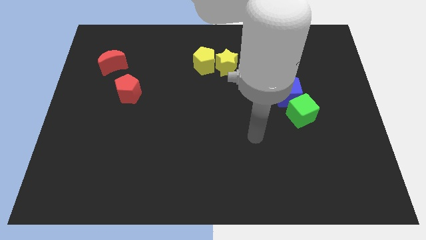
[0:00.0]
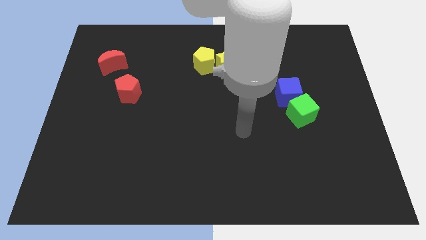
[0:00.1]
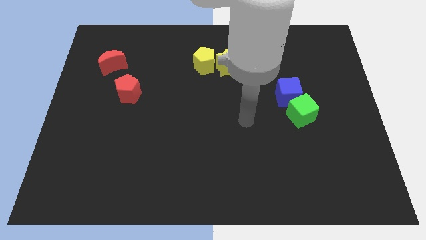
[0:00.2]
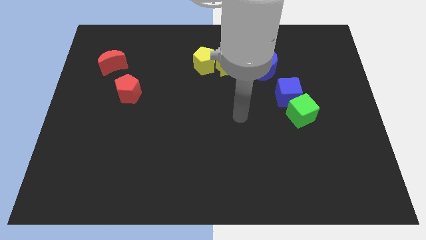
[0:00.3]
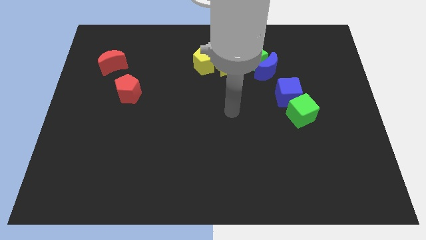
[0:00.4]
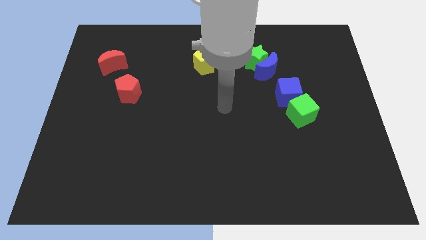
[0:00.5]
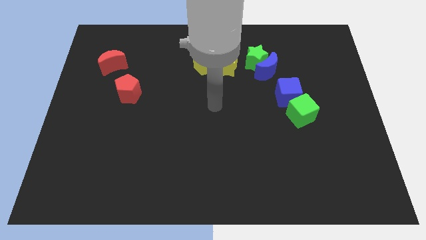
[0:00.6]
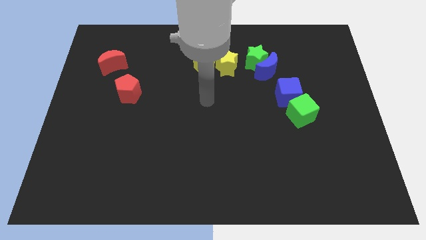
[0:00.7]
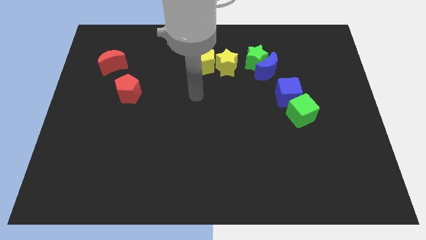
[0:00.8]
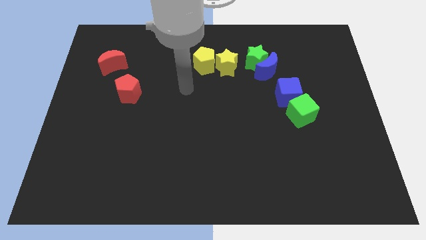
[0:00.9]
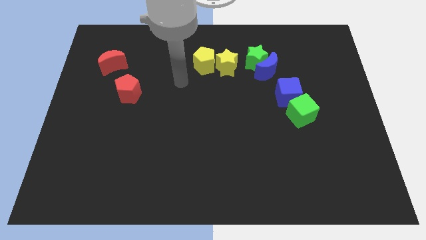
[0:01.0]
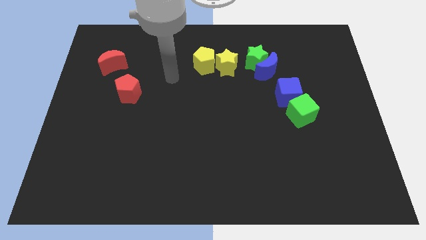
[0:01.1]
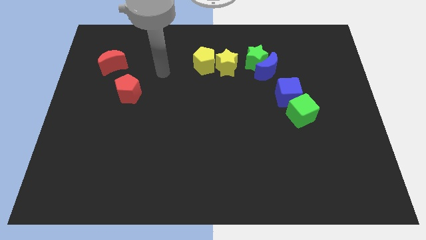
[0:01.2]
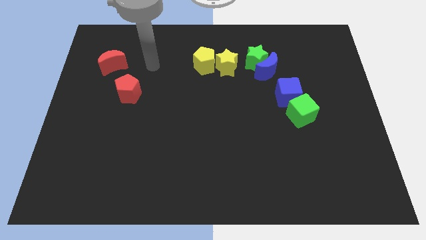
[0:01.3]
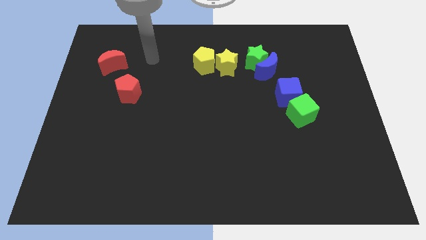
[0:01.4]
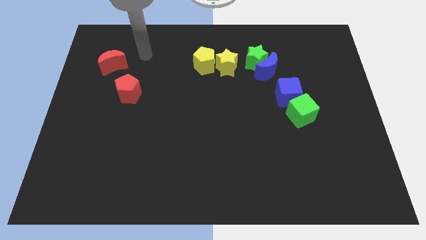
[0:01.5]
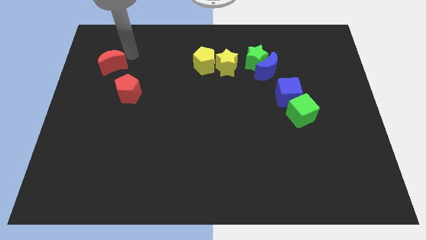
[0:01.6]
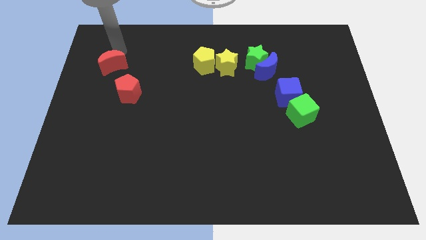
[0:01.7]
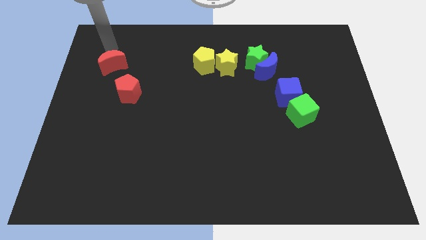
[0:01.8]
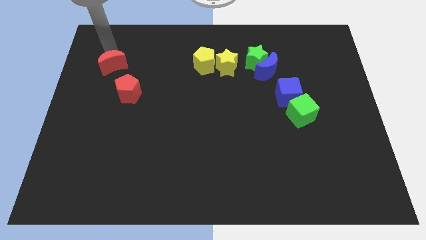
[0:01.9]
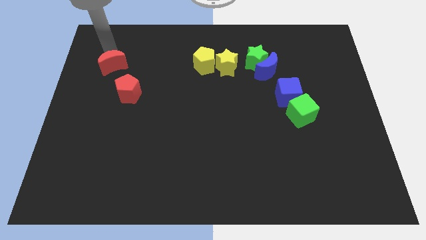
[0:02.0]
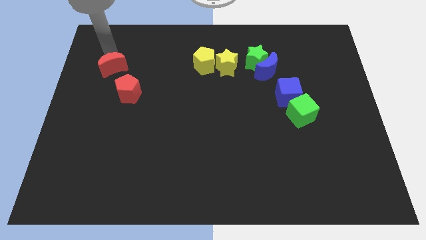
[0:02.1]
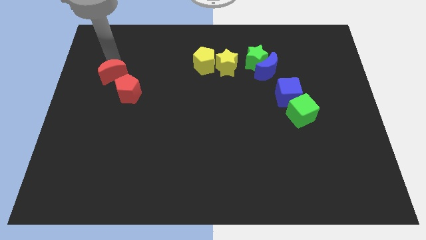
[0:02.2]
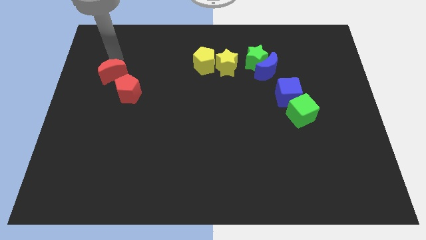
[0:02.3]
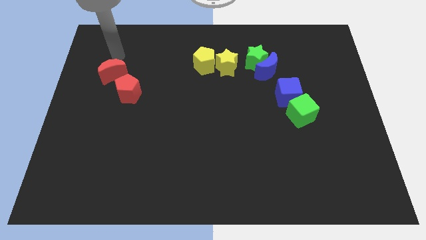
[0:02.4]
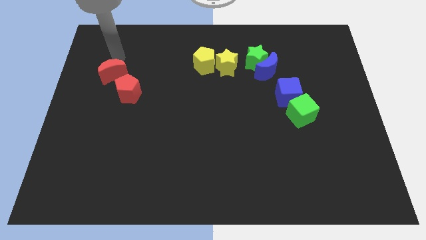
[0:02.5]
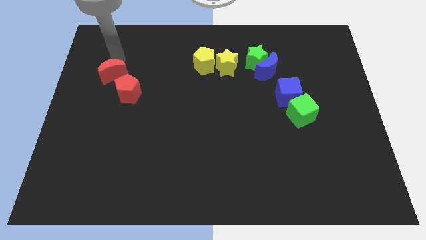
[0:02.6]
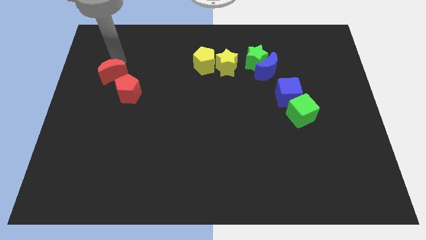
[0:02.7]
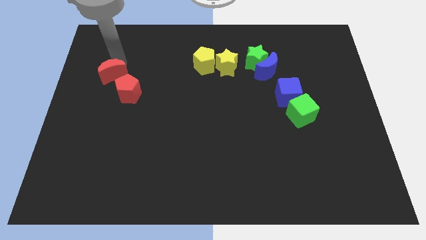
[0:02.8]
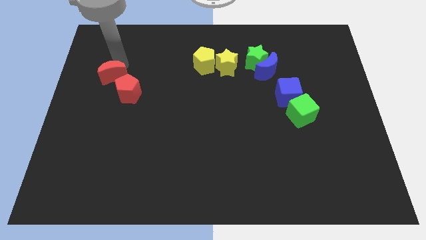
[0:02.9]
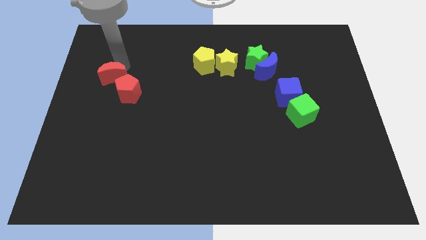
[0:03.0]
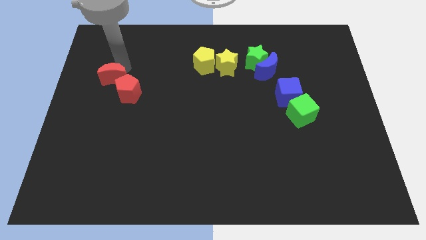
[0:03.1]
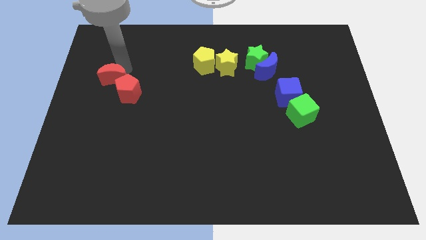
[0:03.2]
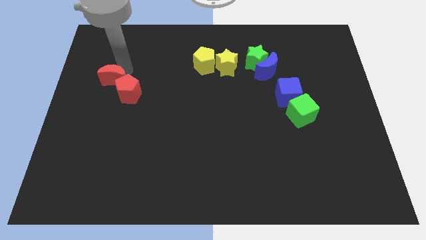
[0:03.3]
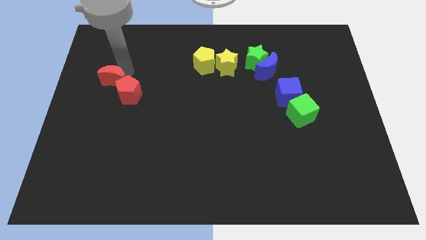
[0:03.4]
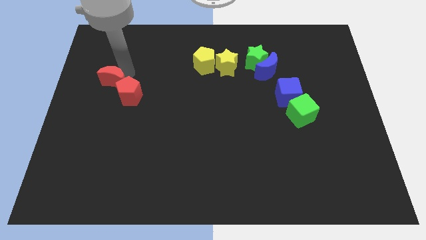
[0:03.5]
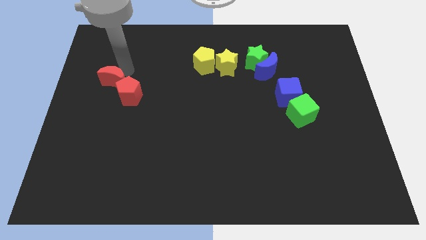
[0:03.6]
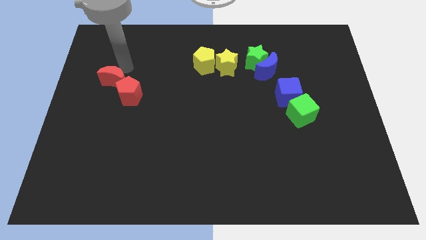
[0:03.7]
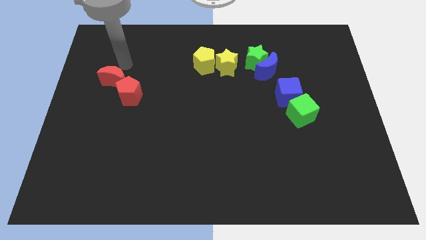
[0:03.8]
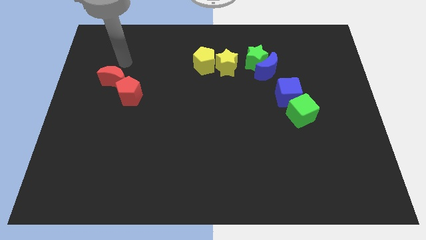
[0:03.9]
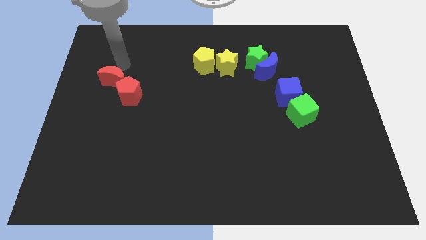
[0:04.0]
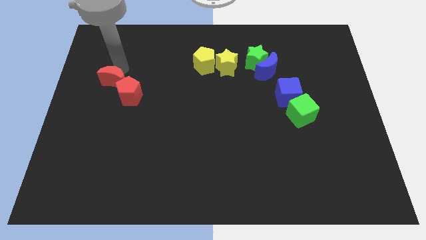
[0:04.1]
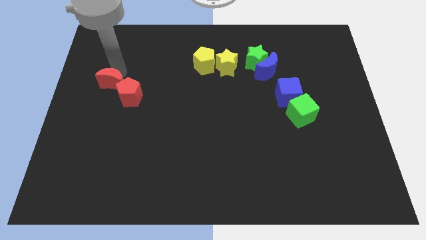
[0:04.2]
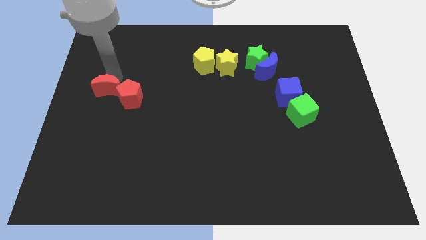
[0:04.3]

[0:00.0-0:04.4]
push the red moon downwards a little bit

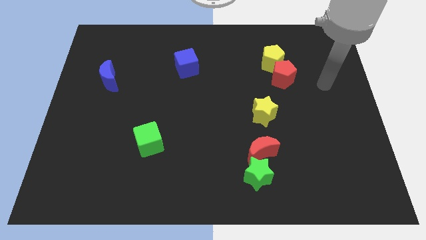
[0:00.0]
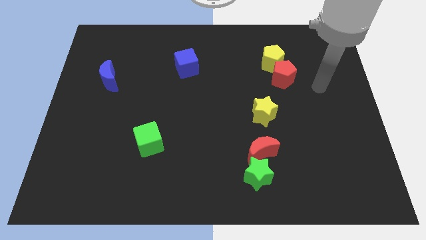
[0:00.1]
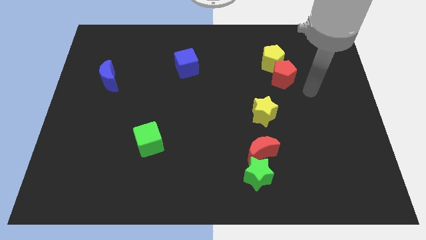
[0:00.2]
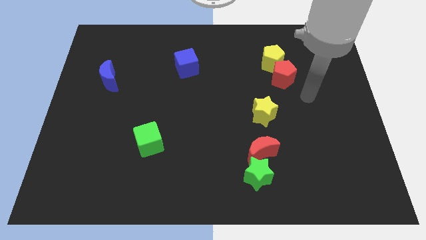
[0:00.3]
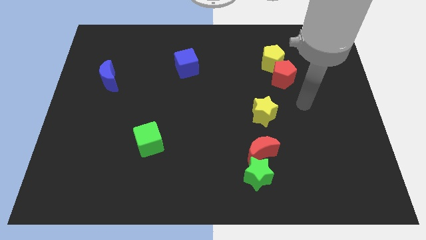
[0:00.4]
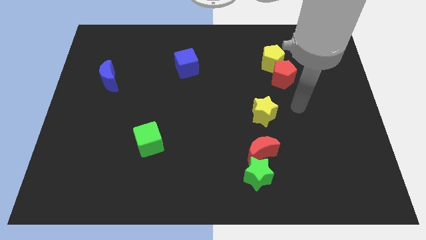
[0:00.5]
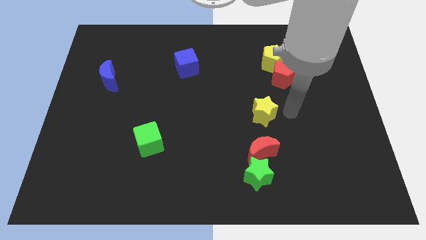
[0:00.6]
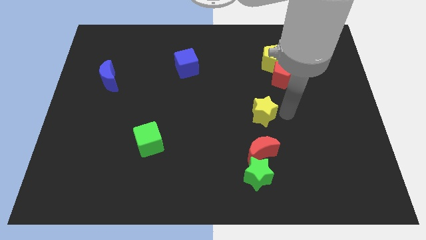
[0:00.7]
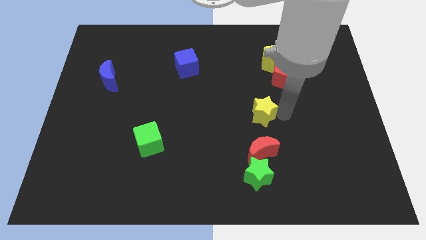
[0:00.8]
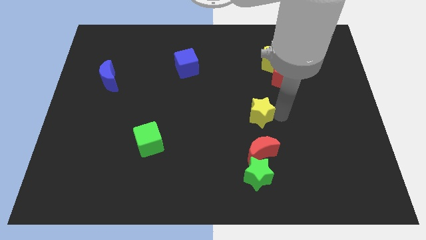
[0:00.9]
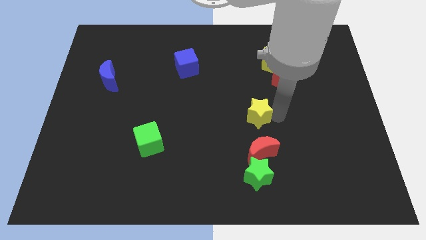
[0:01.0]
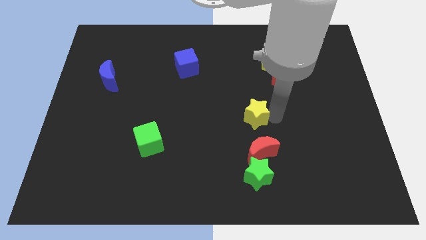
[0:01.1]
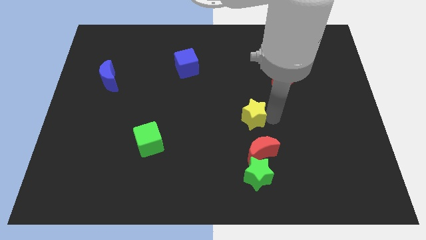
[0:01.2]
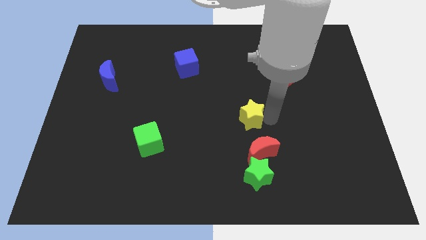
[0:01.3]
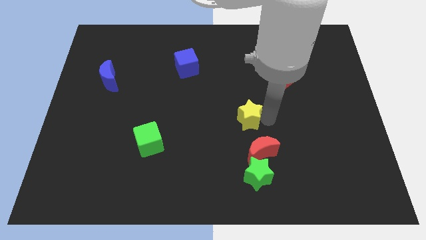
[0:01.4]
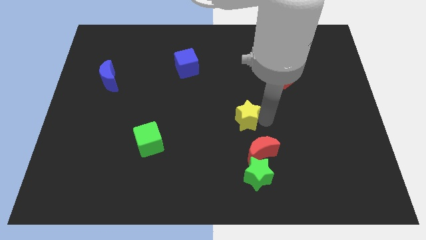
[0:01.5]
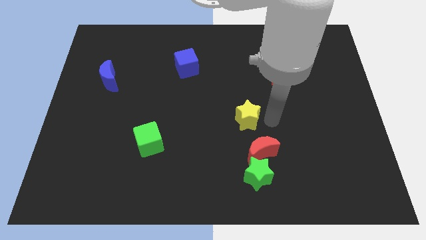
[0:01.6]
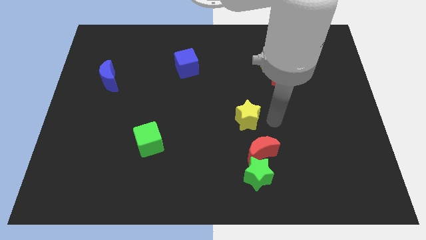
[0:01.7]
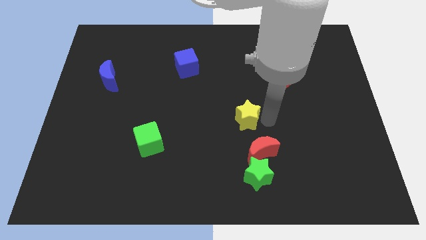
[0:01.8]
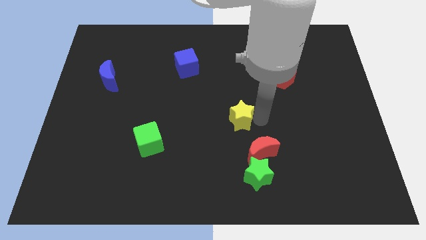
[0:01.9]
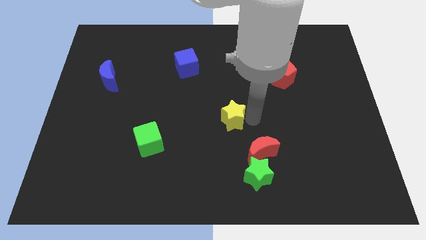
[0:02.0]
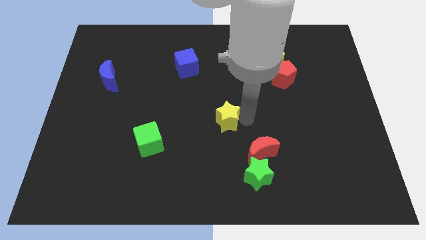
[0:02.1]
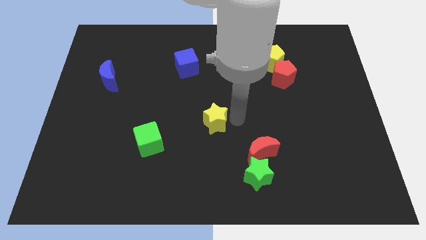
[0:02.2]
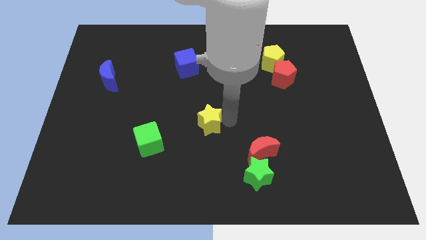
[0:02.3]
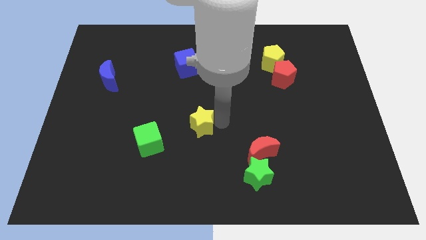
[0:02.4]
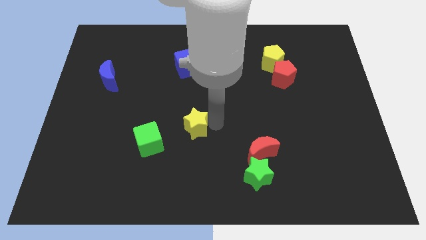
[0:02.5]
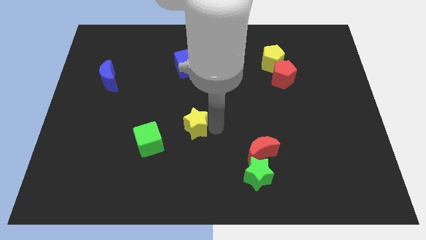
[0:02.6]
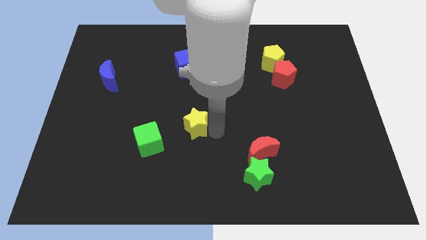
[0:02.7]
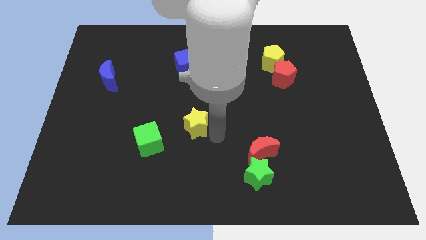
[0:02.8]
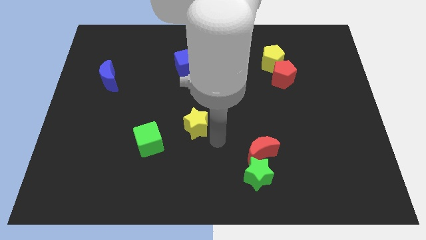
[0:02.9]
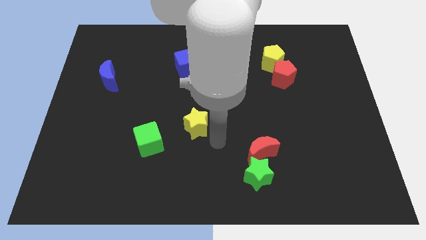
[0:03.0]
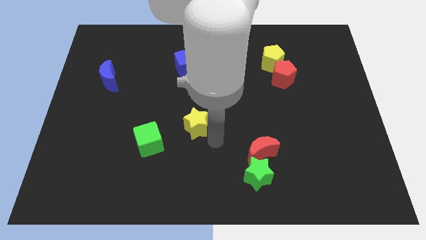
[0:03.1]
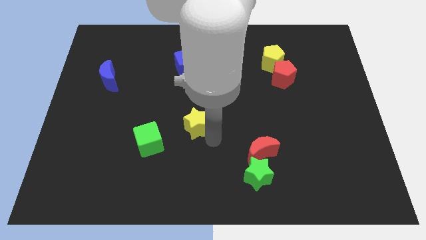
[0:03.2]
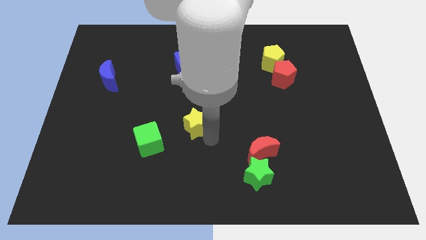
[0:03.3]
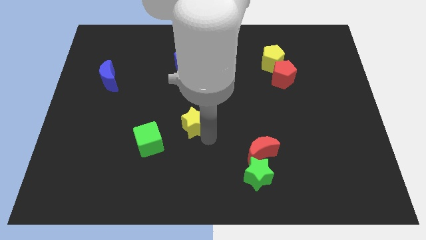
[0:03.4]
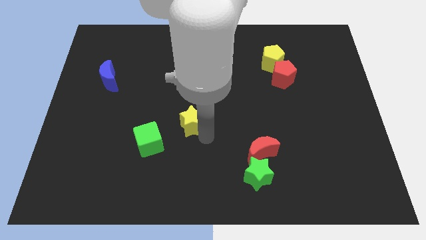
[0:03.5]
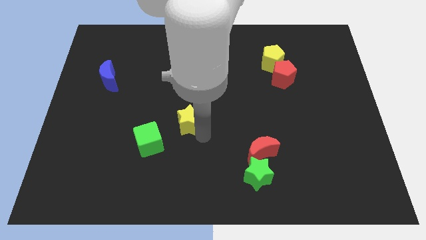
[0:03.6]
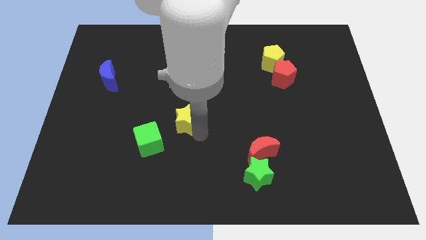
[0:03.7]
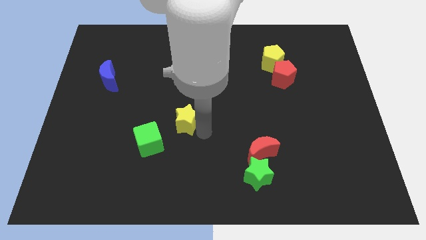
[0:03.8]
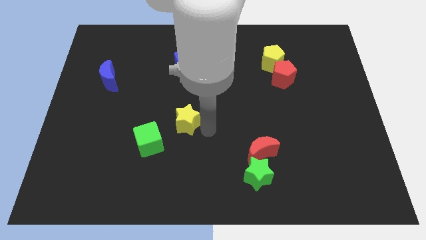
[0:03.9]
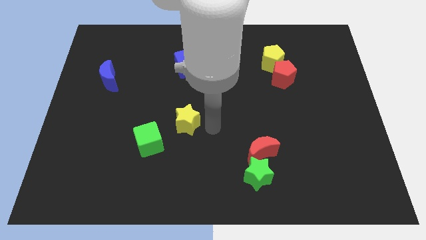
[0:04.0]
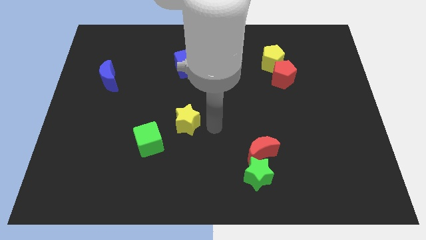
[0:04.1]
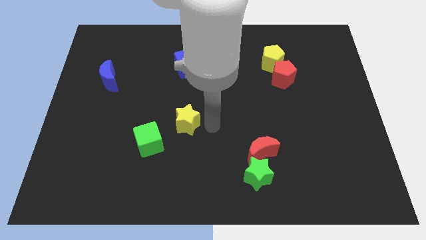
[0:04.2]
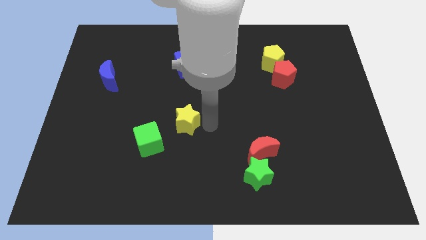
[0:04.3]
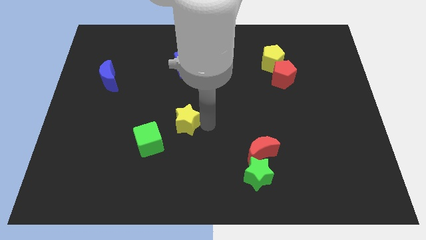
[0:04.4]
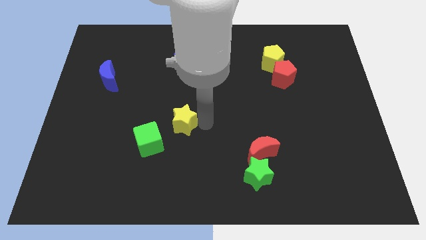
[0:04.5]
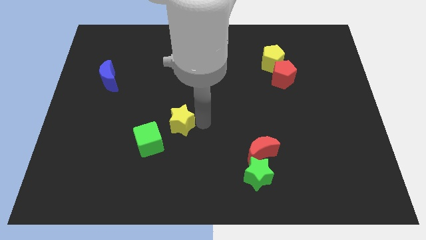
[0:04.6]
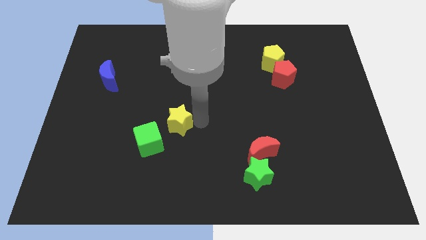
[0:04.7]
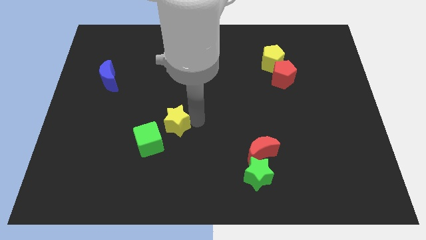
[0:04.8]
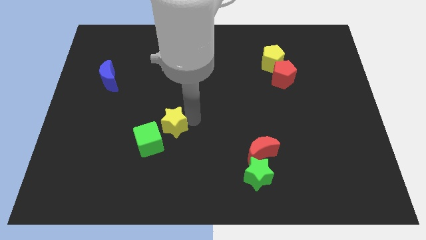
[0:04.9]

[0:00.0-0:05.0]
push the yellow star to the left
